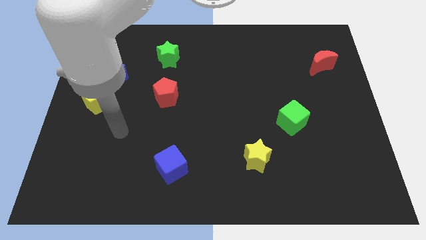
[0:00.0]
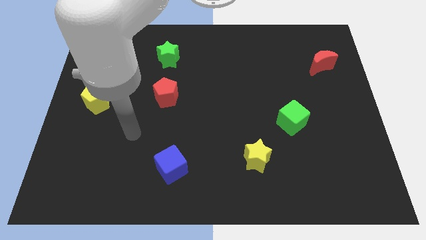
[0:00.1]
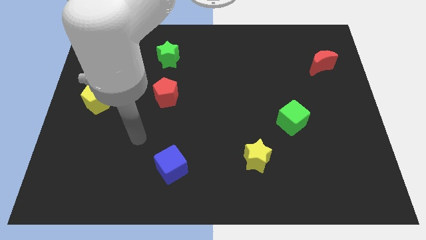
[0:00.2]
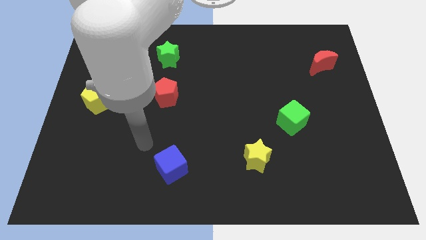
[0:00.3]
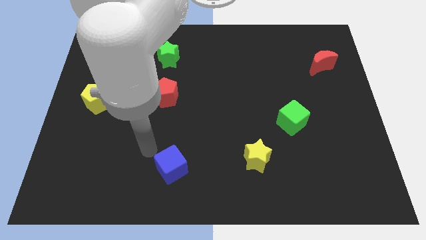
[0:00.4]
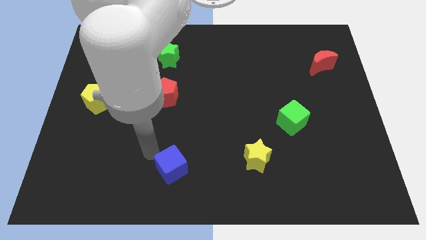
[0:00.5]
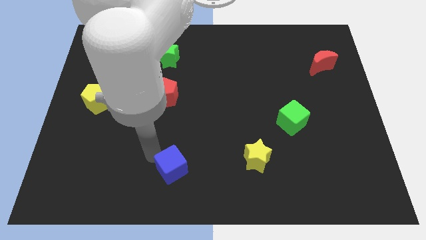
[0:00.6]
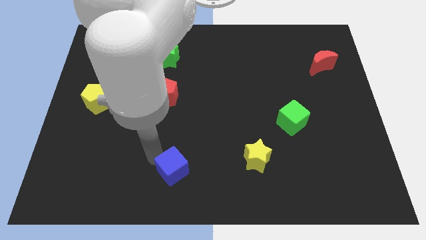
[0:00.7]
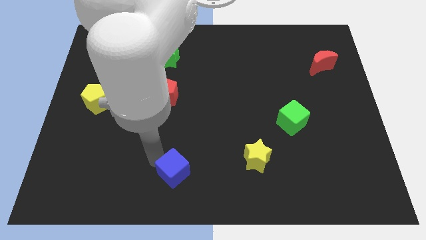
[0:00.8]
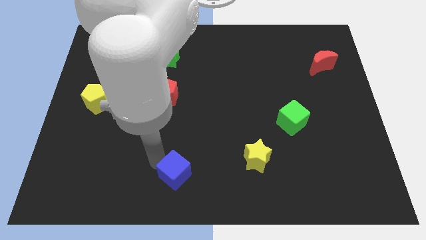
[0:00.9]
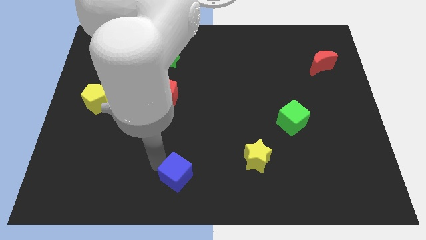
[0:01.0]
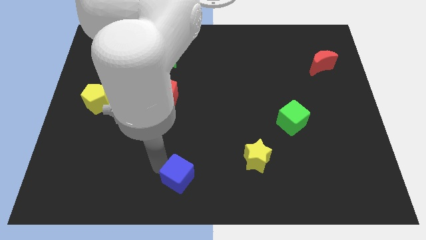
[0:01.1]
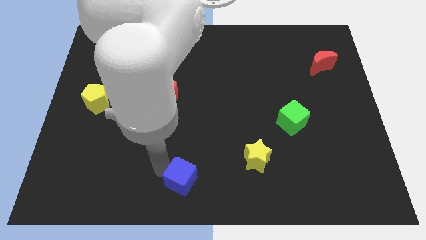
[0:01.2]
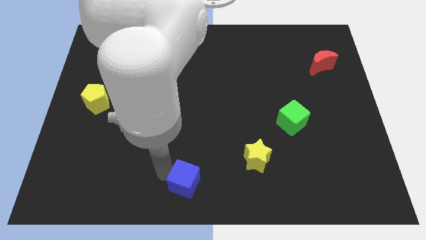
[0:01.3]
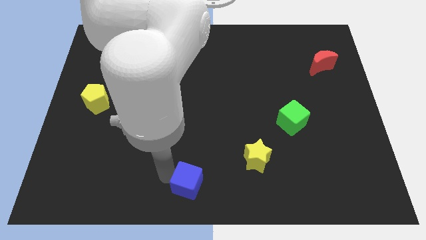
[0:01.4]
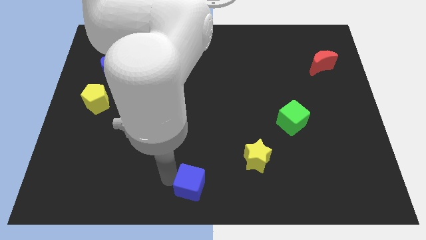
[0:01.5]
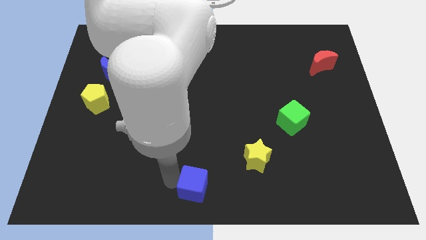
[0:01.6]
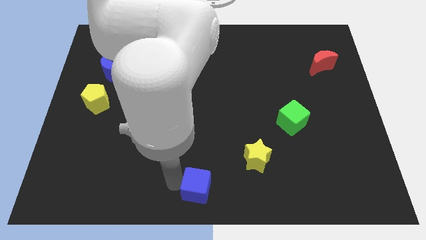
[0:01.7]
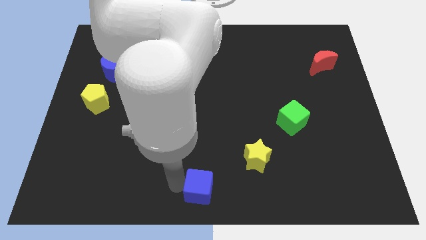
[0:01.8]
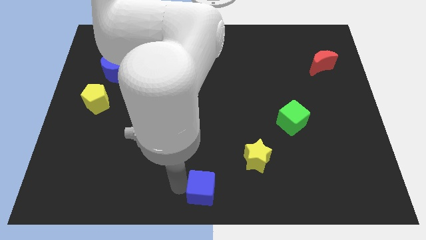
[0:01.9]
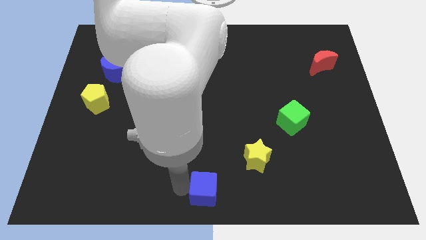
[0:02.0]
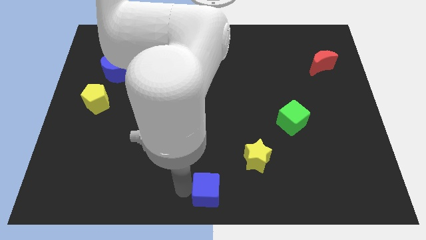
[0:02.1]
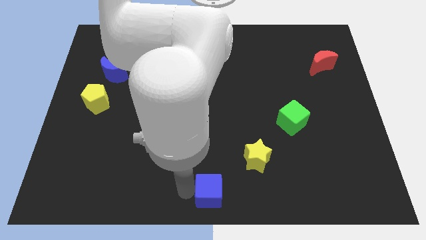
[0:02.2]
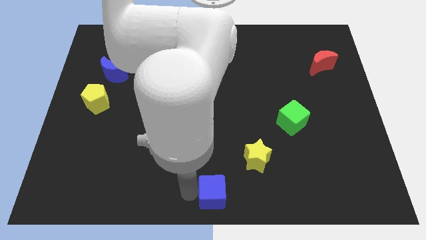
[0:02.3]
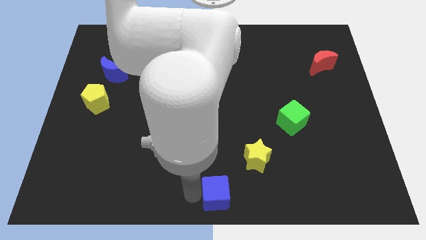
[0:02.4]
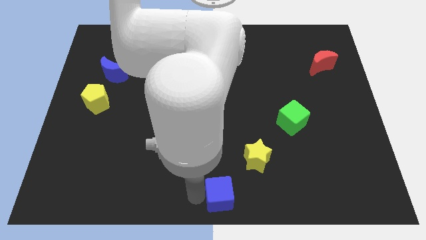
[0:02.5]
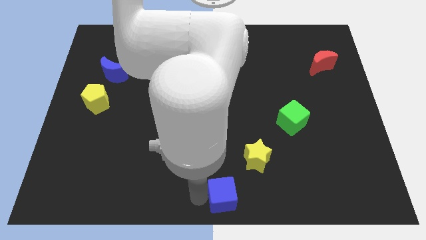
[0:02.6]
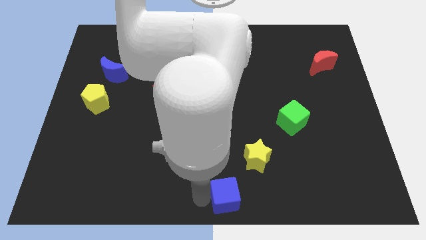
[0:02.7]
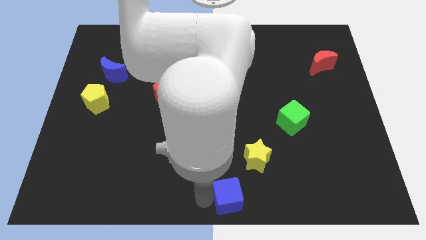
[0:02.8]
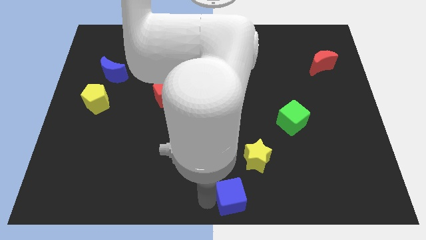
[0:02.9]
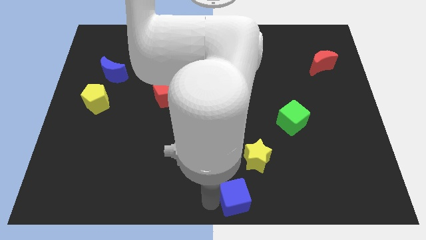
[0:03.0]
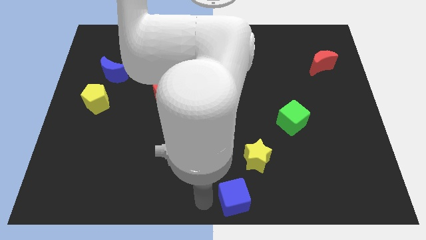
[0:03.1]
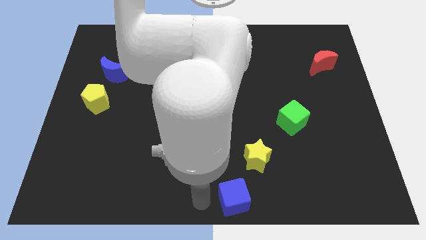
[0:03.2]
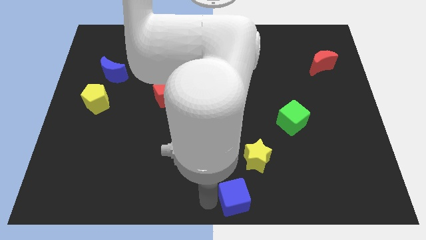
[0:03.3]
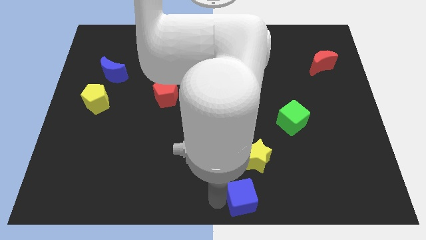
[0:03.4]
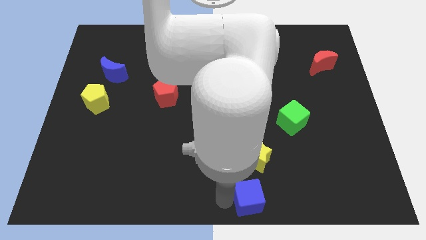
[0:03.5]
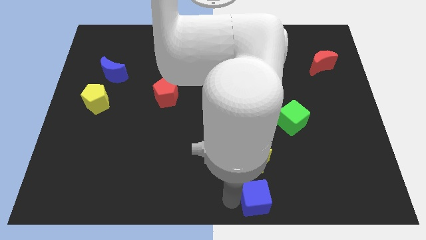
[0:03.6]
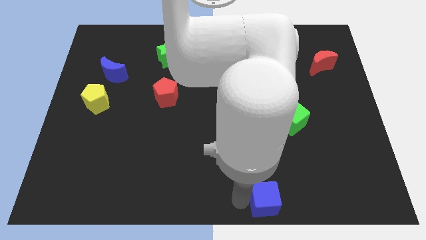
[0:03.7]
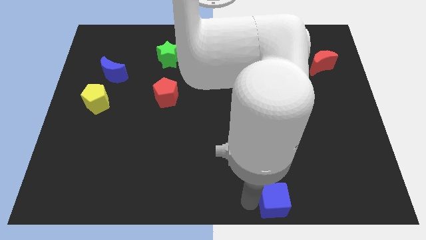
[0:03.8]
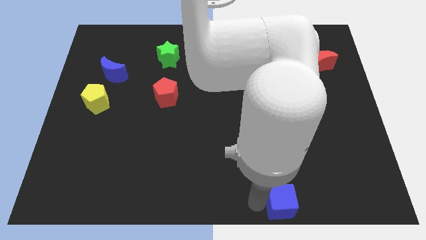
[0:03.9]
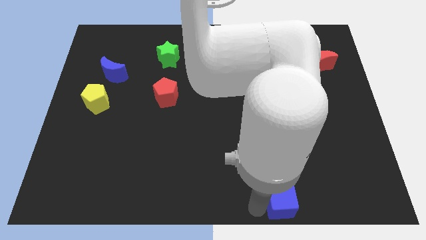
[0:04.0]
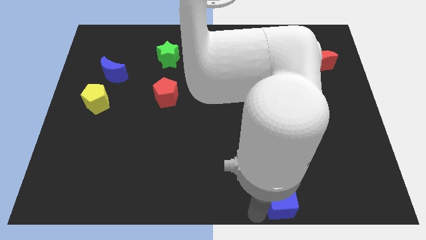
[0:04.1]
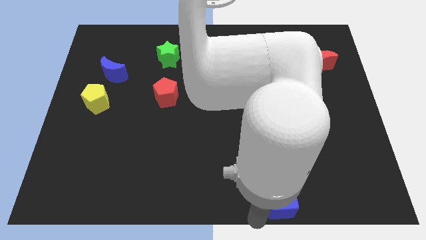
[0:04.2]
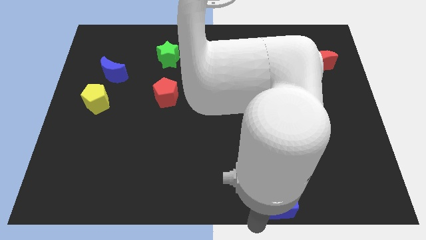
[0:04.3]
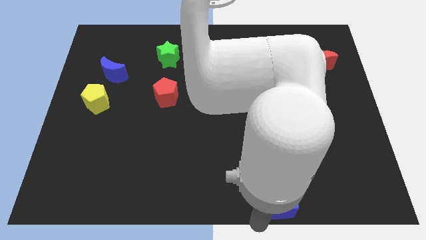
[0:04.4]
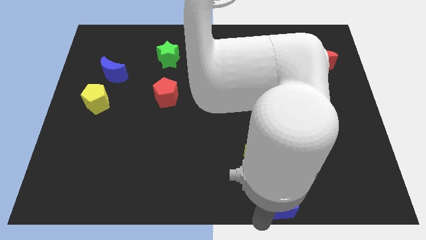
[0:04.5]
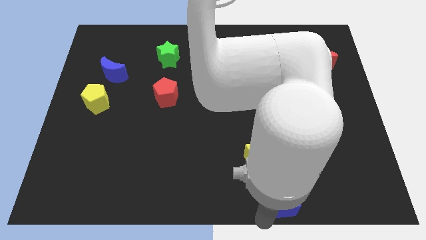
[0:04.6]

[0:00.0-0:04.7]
move the blue cube right

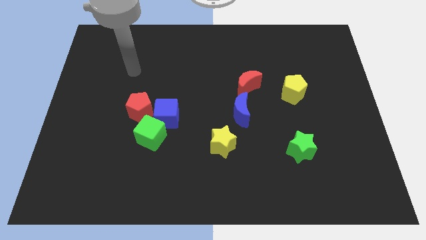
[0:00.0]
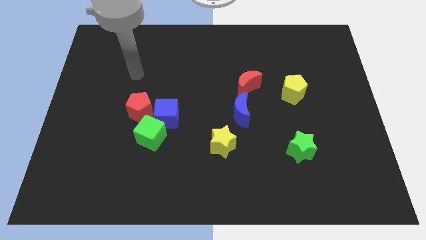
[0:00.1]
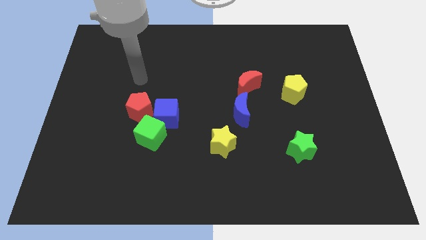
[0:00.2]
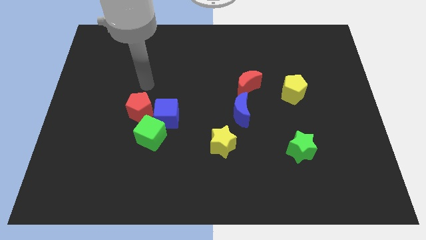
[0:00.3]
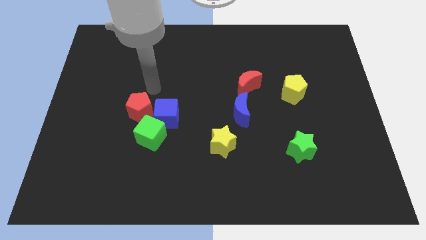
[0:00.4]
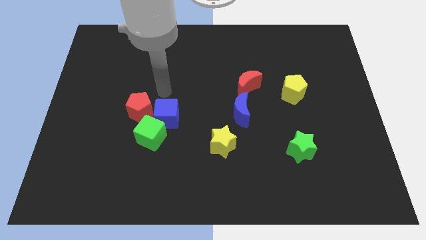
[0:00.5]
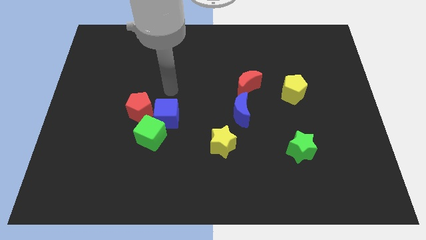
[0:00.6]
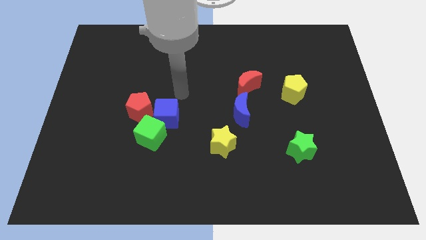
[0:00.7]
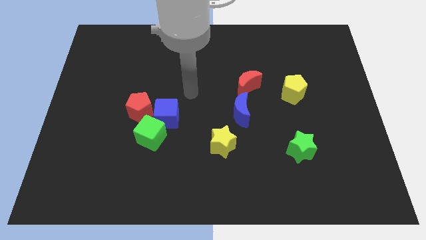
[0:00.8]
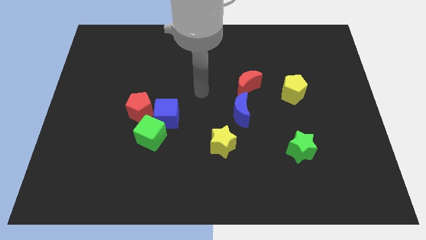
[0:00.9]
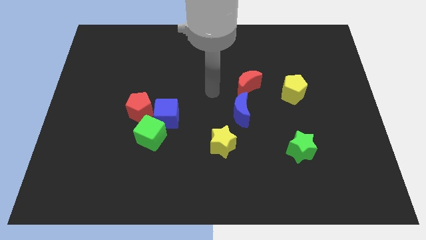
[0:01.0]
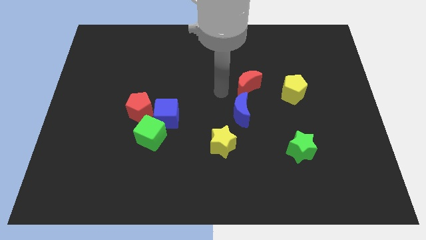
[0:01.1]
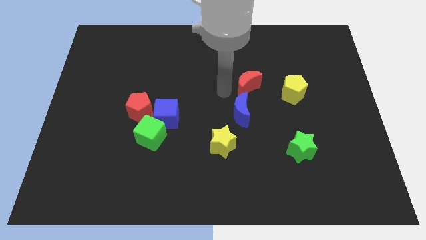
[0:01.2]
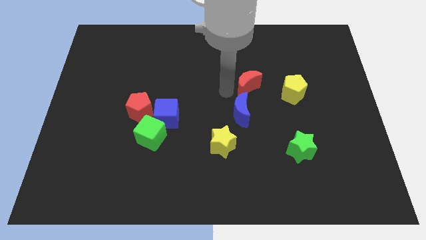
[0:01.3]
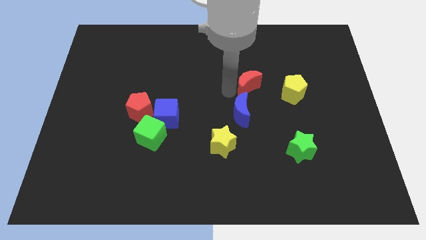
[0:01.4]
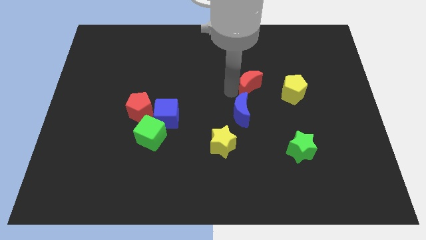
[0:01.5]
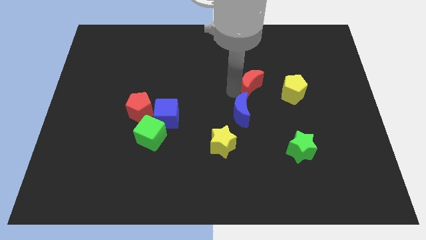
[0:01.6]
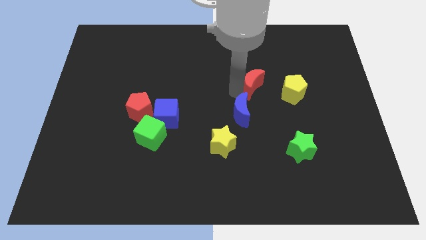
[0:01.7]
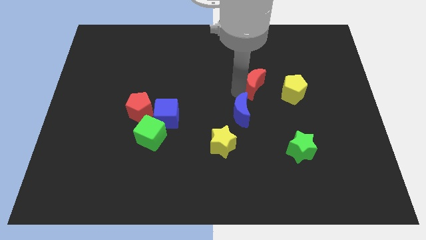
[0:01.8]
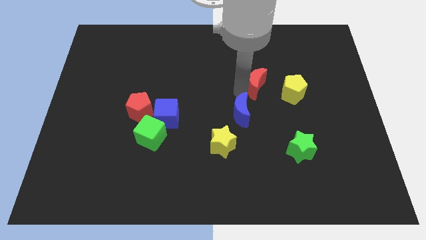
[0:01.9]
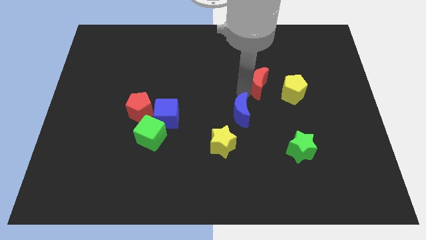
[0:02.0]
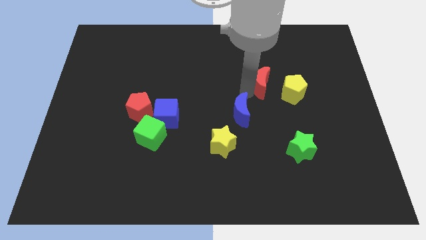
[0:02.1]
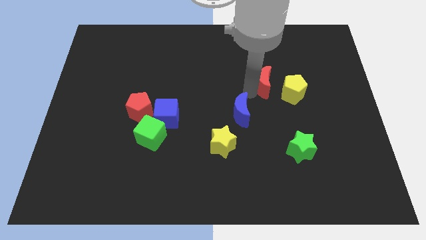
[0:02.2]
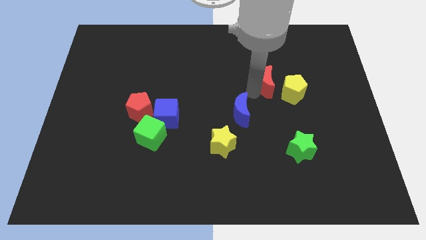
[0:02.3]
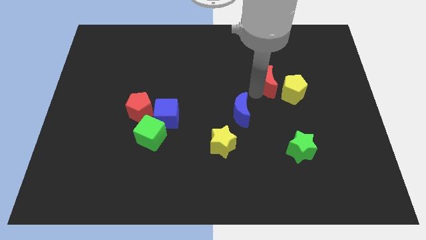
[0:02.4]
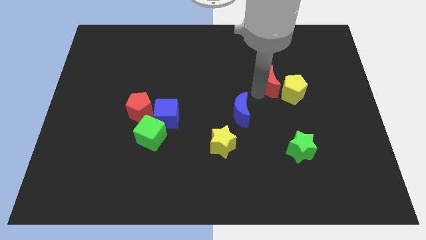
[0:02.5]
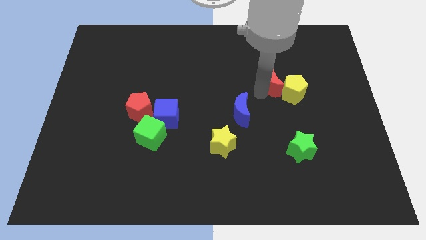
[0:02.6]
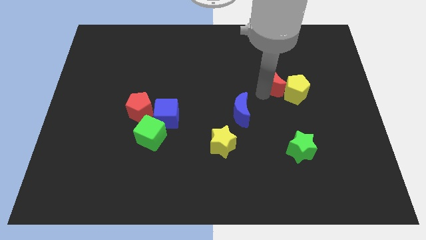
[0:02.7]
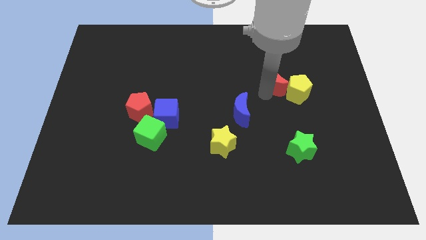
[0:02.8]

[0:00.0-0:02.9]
slide the red moon somewhat right

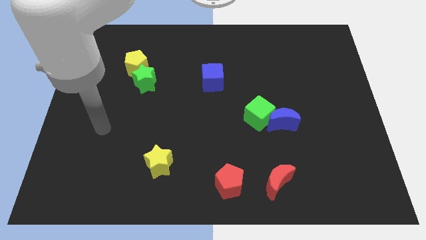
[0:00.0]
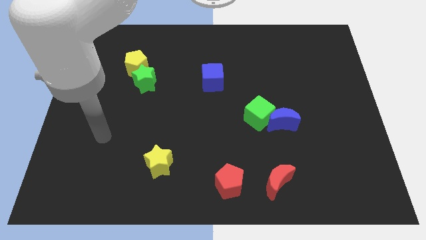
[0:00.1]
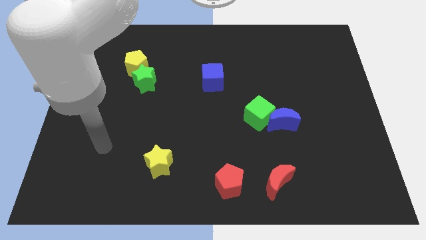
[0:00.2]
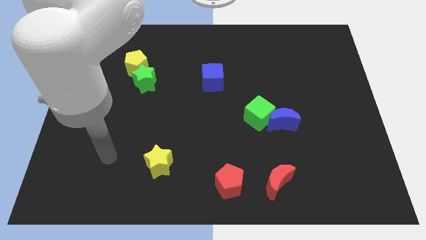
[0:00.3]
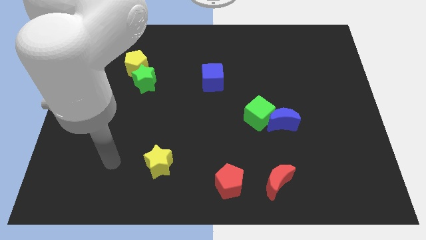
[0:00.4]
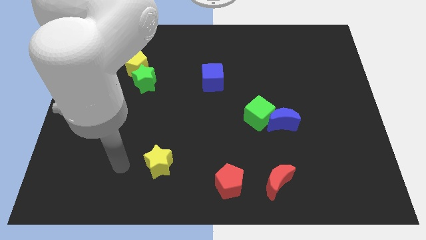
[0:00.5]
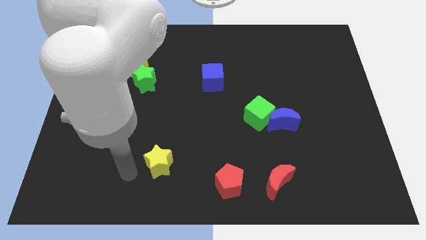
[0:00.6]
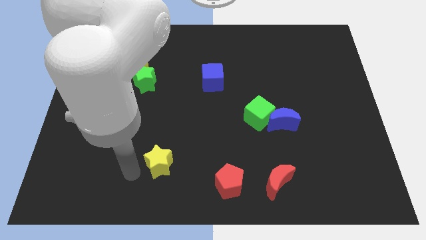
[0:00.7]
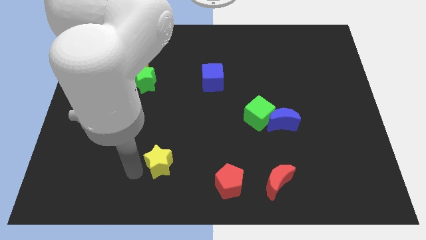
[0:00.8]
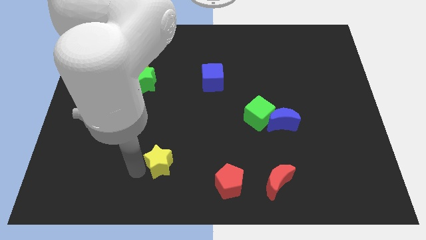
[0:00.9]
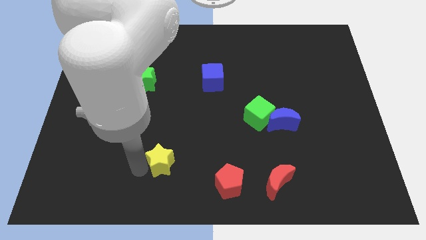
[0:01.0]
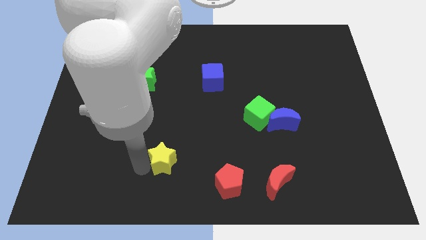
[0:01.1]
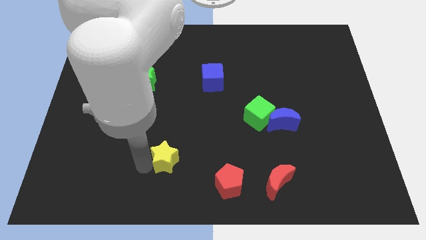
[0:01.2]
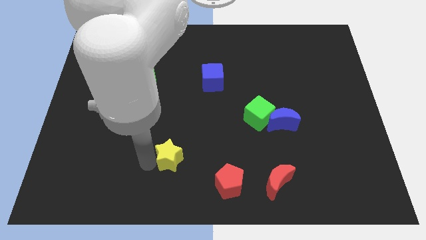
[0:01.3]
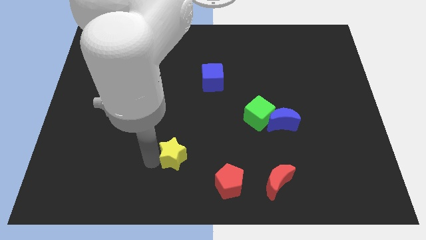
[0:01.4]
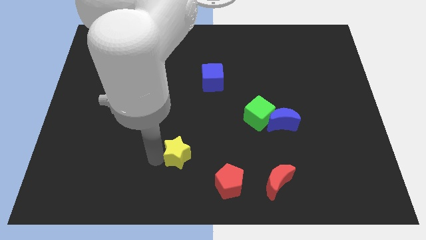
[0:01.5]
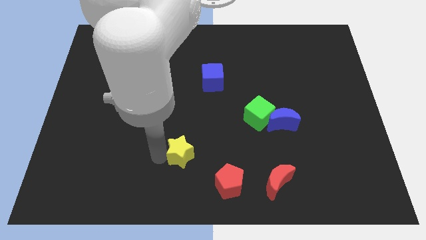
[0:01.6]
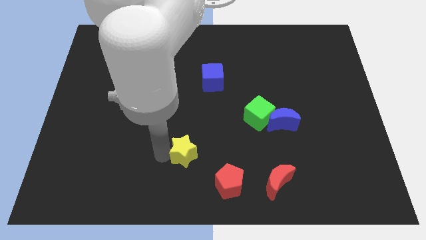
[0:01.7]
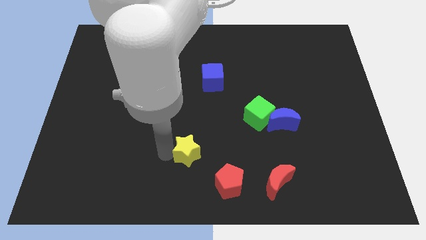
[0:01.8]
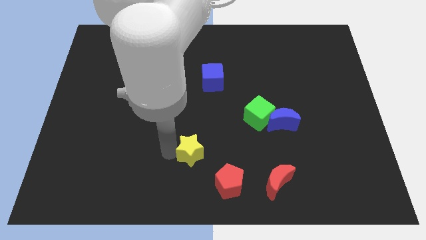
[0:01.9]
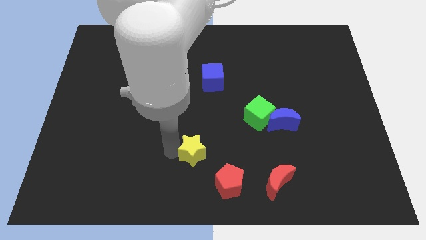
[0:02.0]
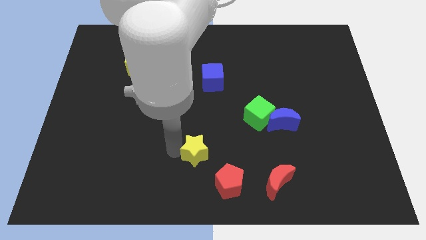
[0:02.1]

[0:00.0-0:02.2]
slide the yellow star to the right a little bit
